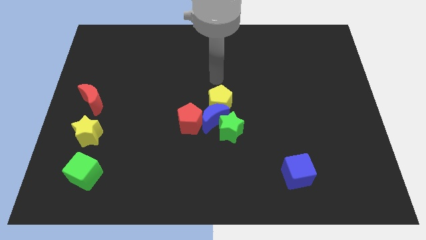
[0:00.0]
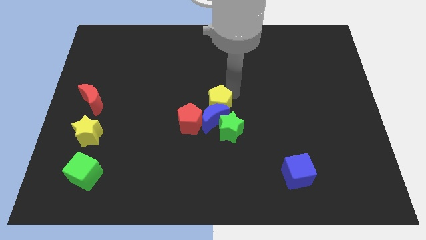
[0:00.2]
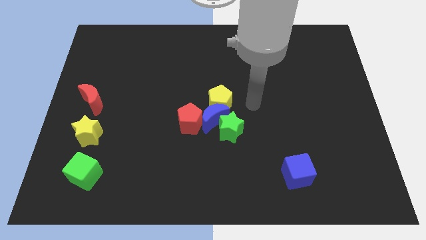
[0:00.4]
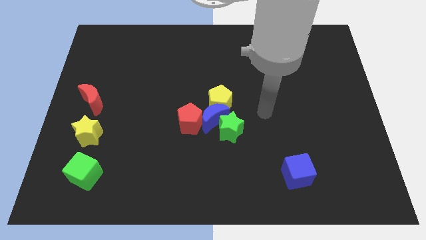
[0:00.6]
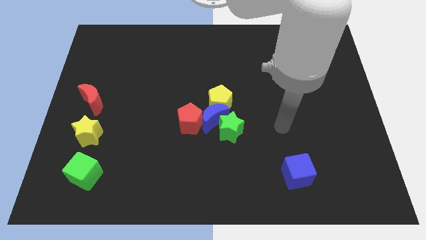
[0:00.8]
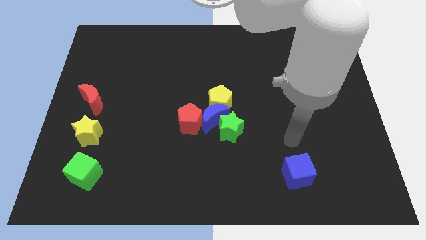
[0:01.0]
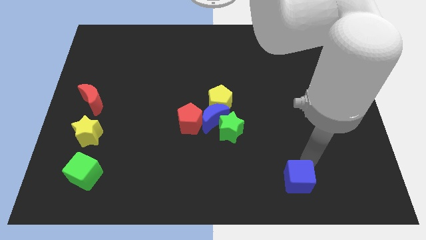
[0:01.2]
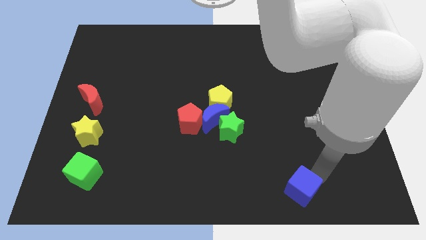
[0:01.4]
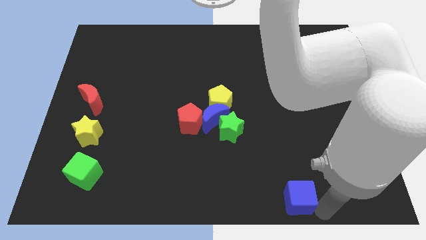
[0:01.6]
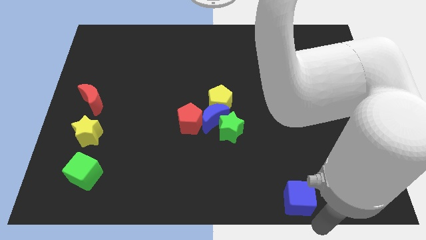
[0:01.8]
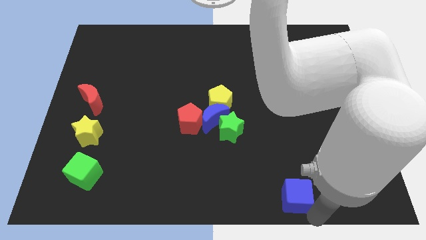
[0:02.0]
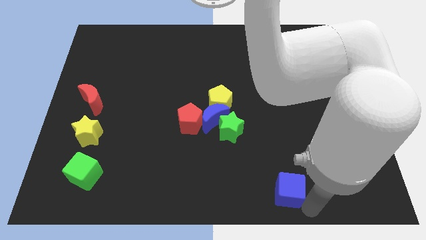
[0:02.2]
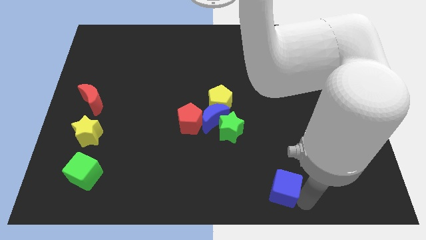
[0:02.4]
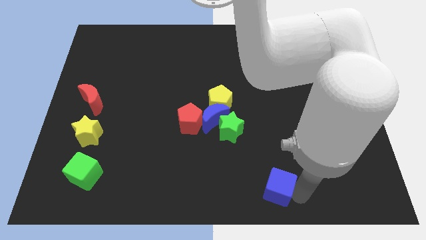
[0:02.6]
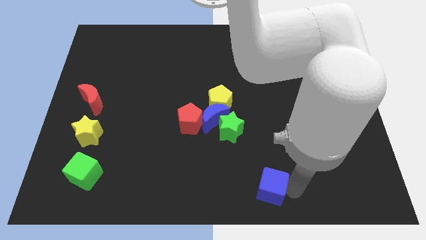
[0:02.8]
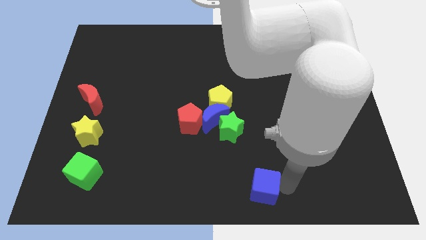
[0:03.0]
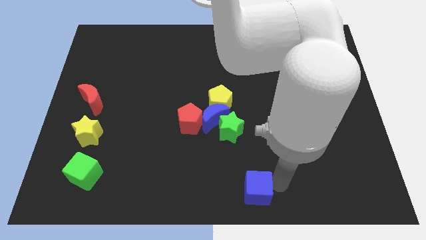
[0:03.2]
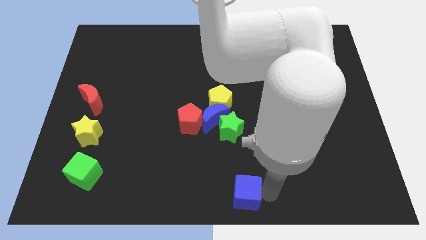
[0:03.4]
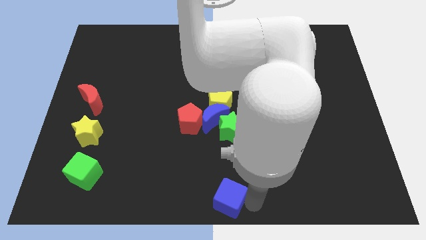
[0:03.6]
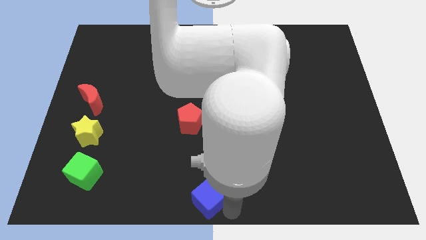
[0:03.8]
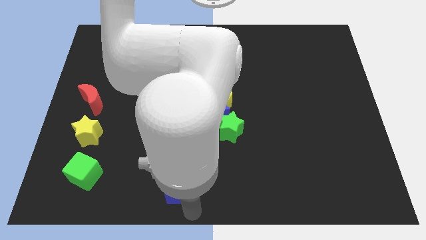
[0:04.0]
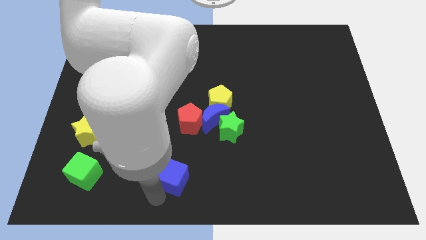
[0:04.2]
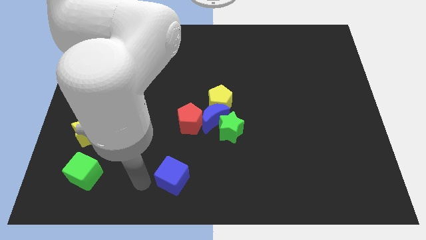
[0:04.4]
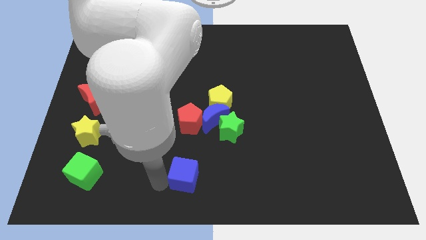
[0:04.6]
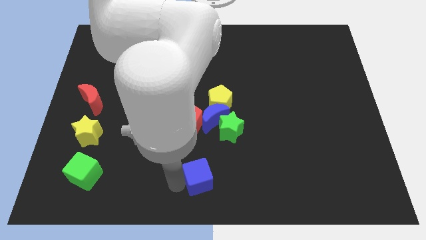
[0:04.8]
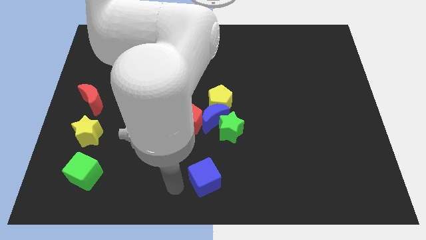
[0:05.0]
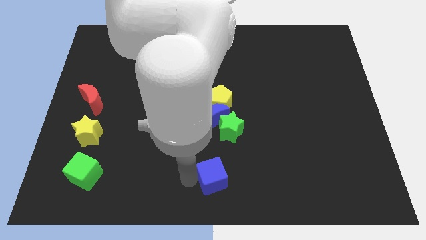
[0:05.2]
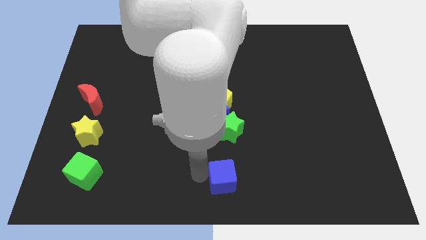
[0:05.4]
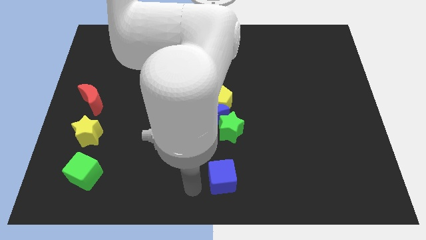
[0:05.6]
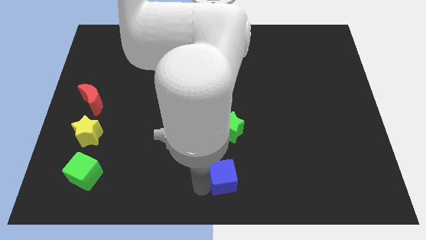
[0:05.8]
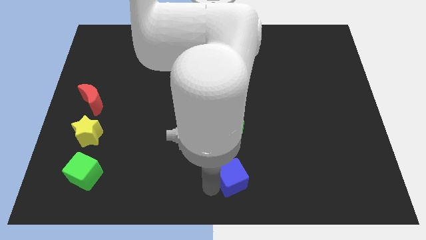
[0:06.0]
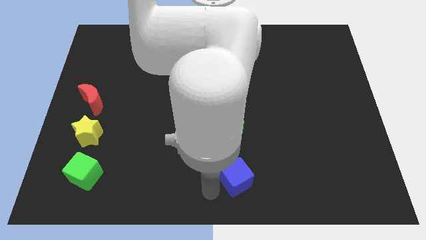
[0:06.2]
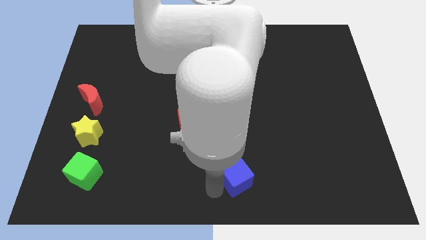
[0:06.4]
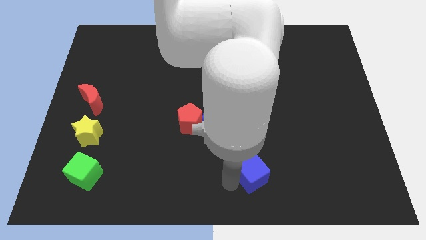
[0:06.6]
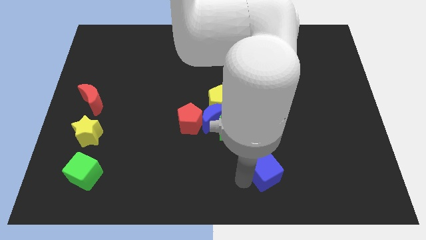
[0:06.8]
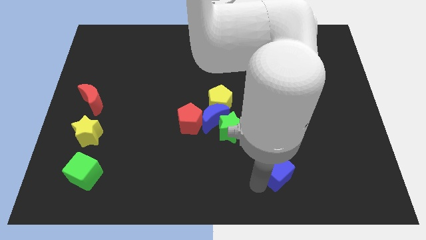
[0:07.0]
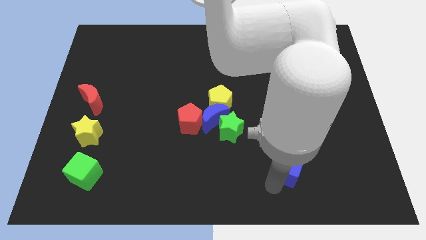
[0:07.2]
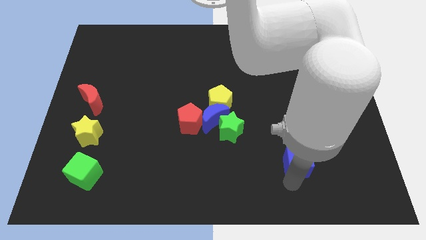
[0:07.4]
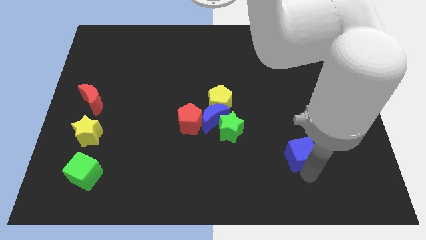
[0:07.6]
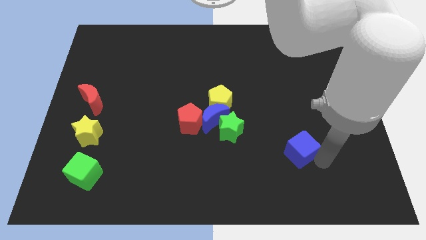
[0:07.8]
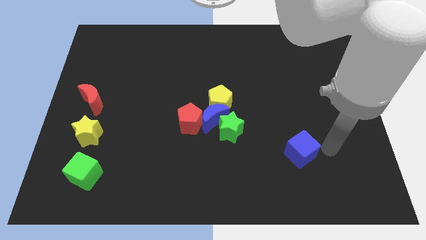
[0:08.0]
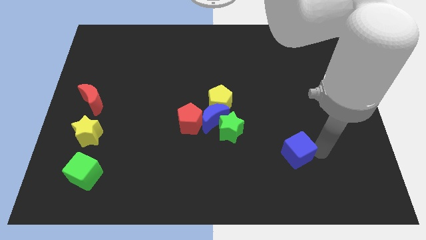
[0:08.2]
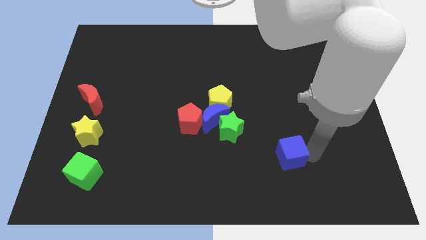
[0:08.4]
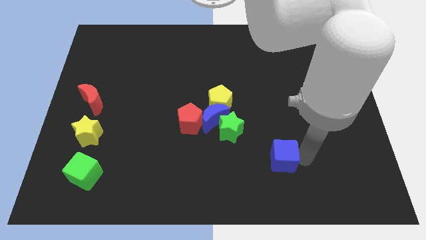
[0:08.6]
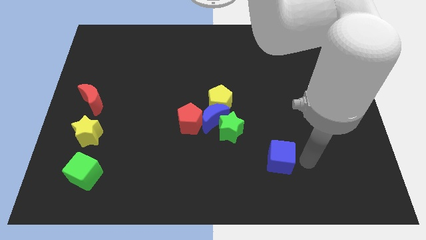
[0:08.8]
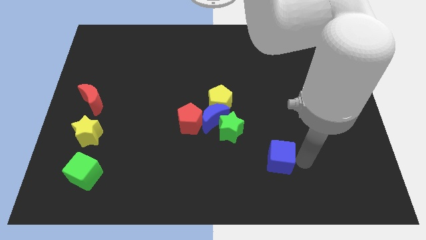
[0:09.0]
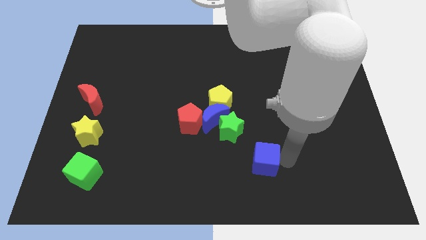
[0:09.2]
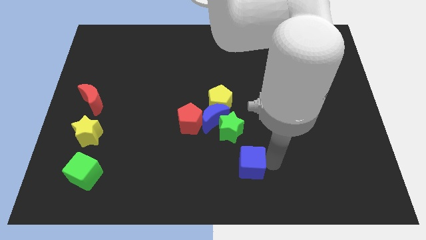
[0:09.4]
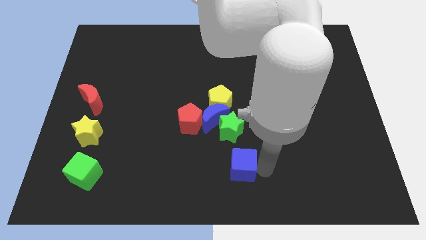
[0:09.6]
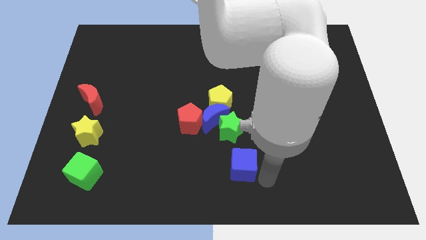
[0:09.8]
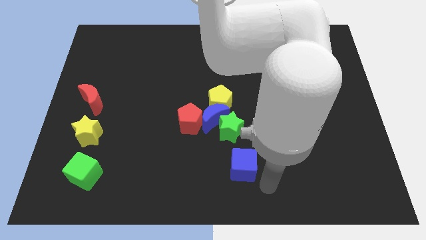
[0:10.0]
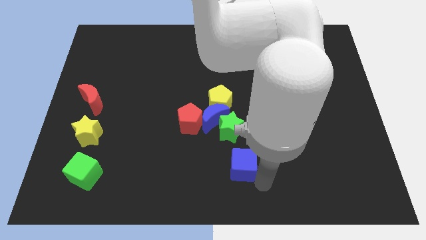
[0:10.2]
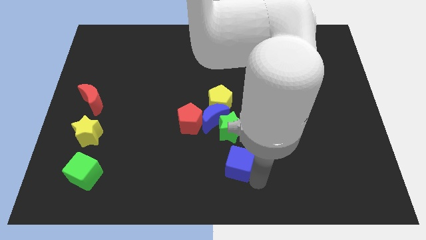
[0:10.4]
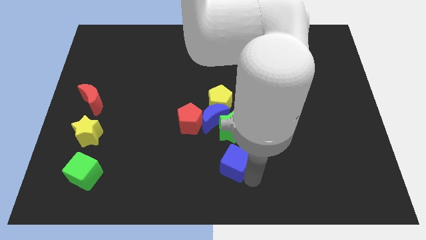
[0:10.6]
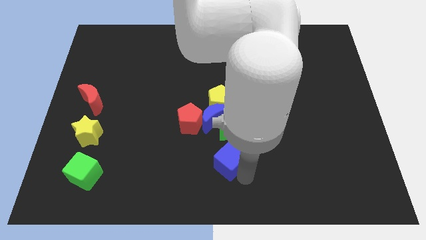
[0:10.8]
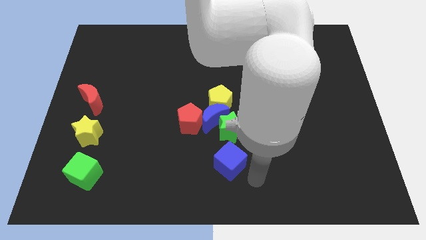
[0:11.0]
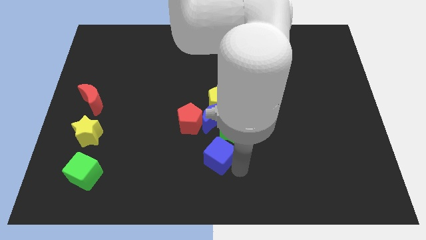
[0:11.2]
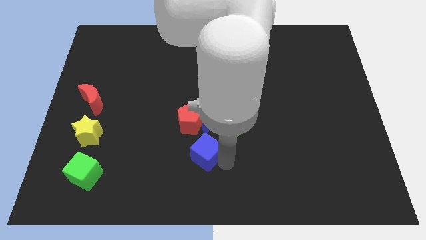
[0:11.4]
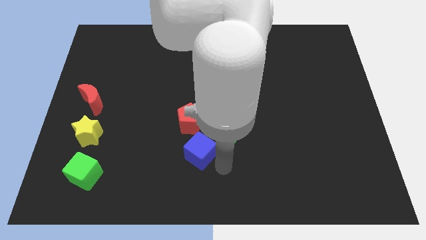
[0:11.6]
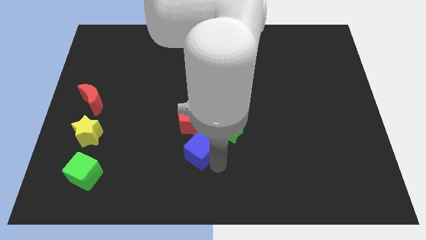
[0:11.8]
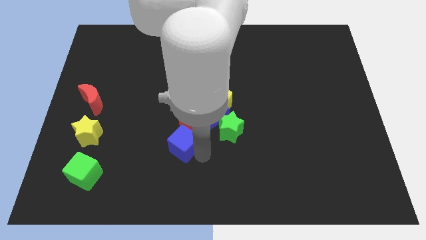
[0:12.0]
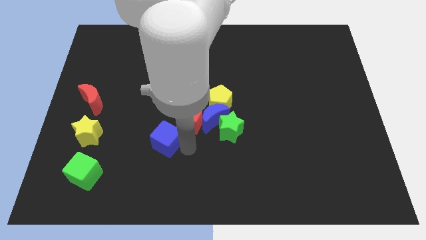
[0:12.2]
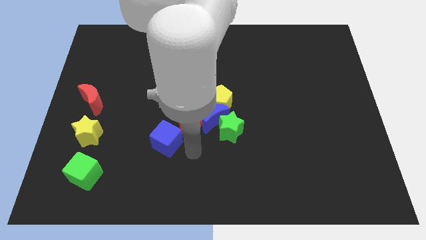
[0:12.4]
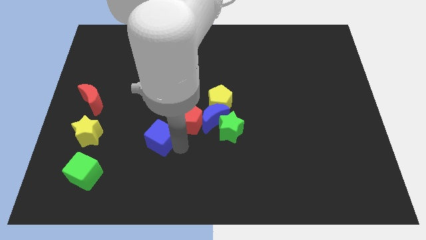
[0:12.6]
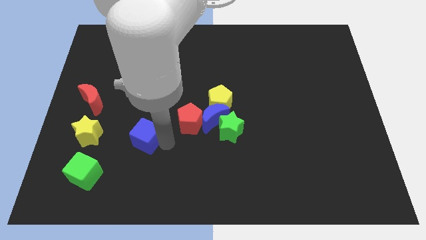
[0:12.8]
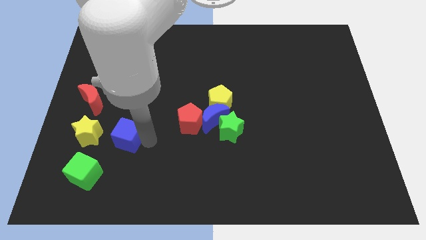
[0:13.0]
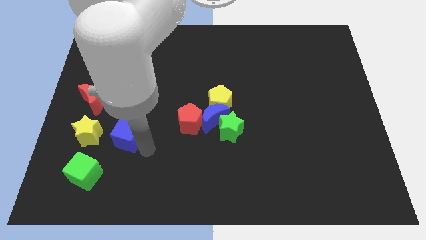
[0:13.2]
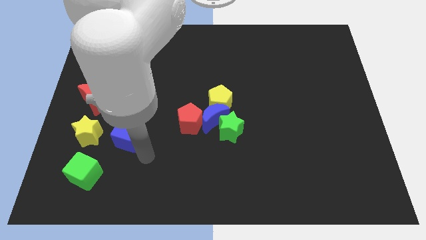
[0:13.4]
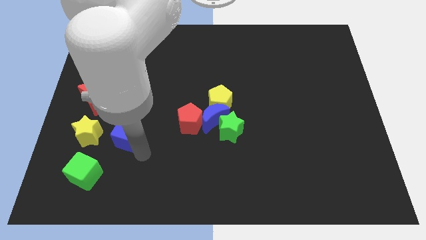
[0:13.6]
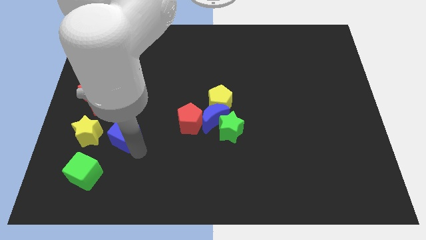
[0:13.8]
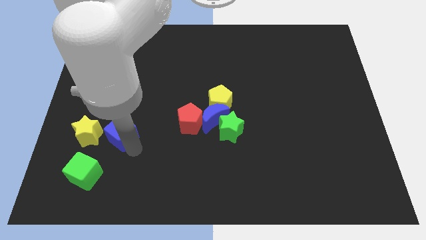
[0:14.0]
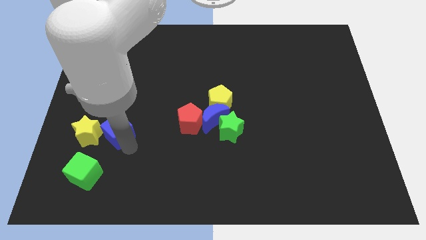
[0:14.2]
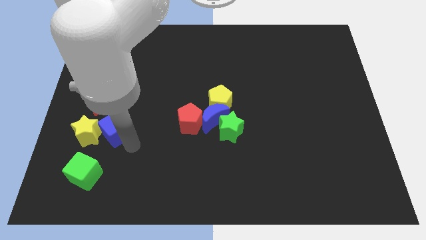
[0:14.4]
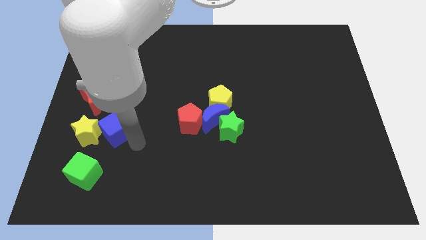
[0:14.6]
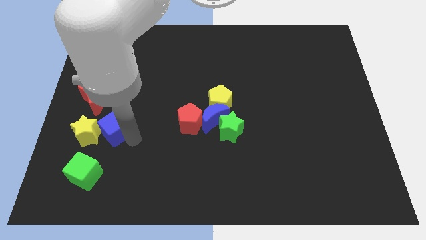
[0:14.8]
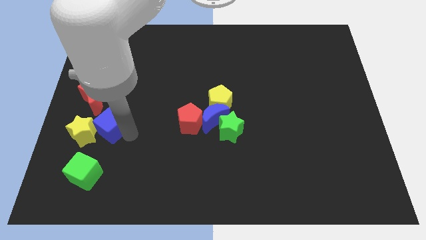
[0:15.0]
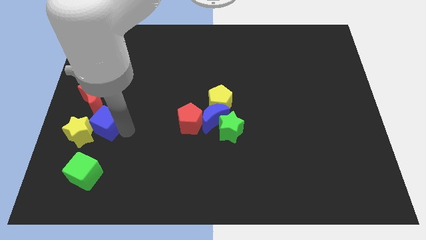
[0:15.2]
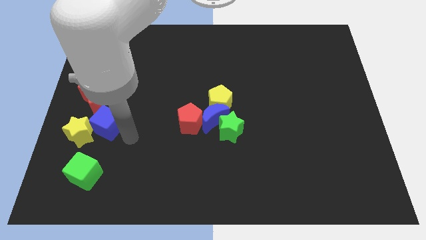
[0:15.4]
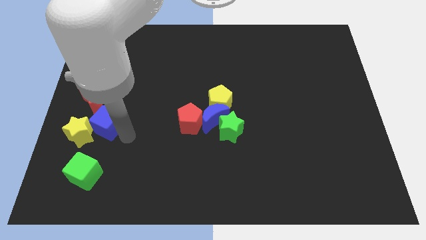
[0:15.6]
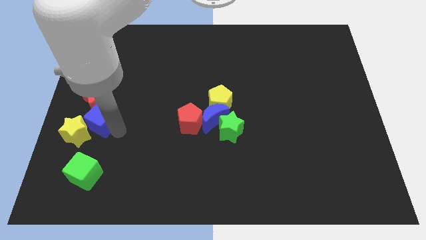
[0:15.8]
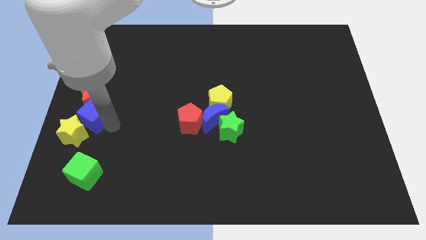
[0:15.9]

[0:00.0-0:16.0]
push the blue cube to the center left
